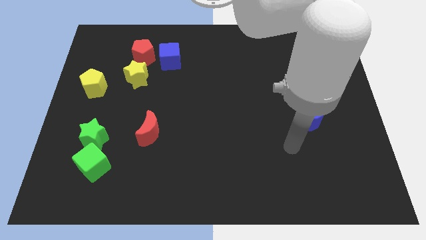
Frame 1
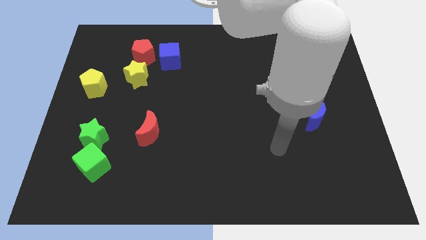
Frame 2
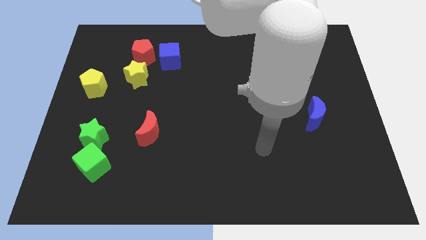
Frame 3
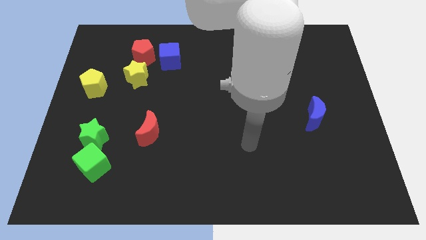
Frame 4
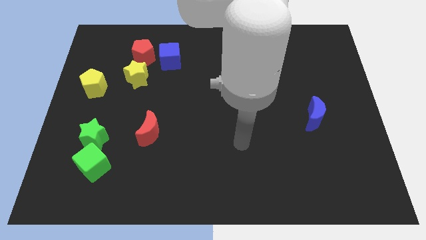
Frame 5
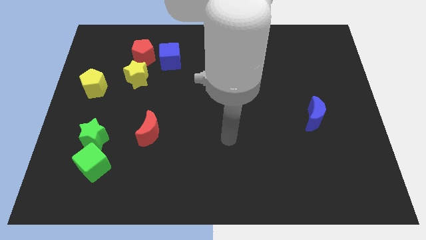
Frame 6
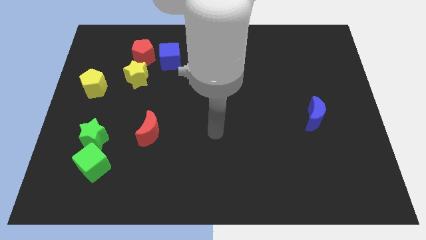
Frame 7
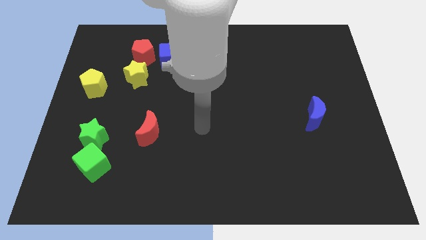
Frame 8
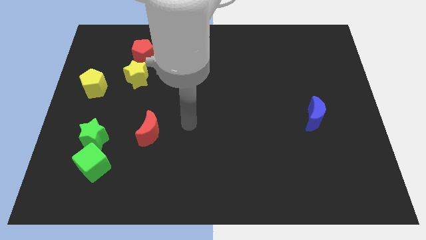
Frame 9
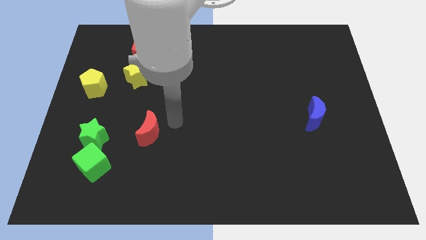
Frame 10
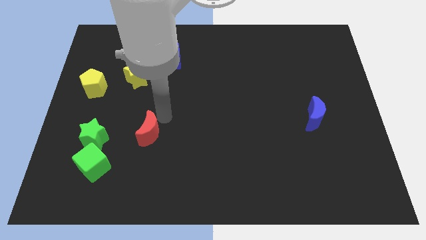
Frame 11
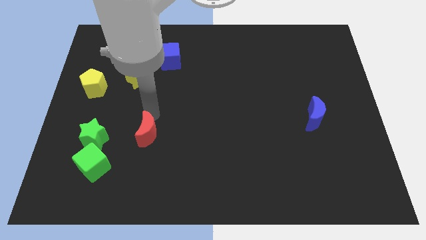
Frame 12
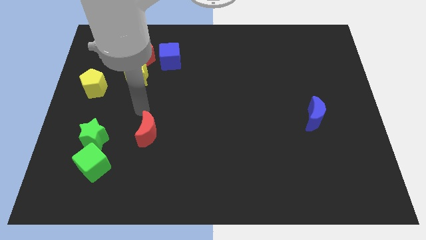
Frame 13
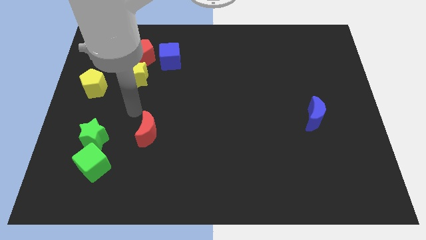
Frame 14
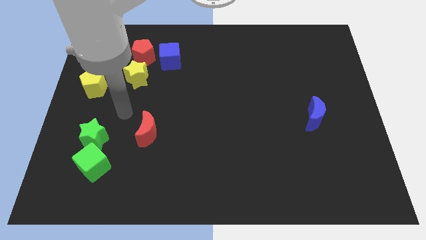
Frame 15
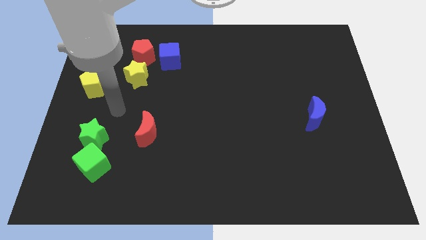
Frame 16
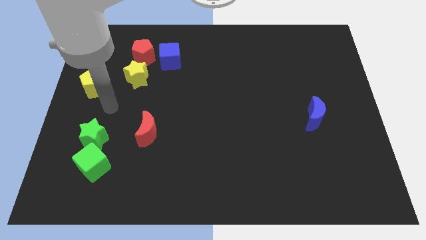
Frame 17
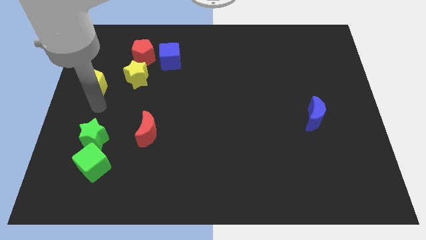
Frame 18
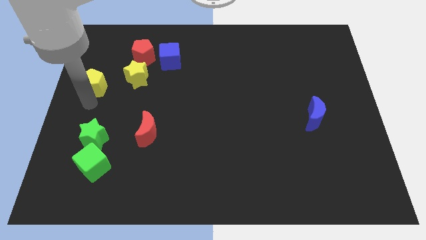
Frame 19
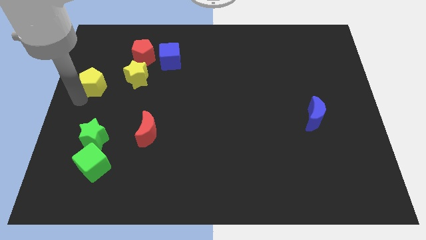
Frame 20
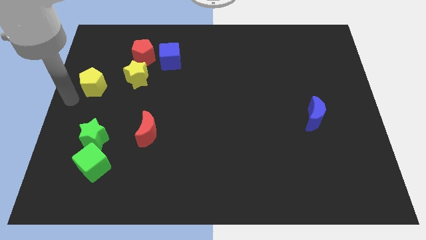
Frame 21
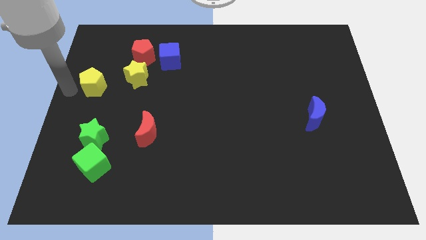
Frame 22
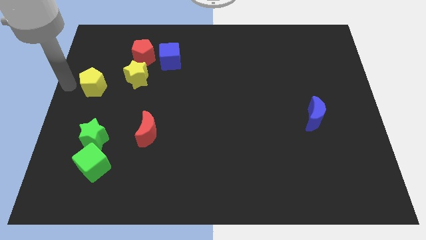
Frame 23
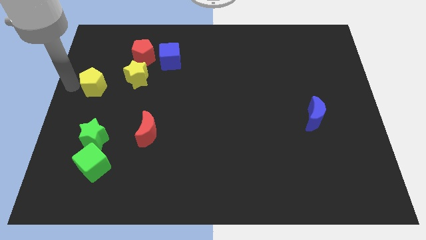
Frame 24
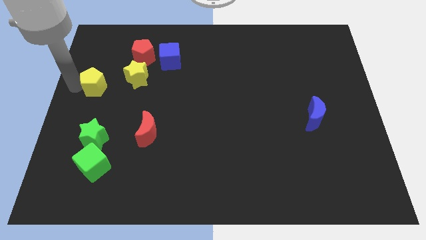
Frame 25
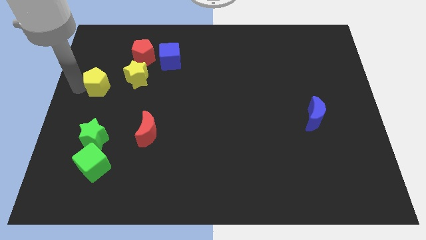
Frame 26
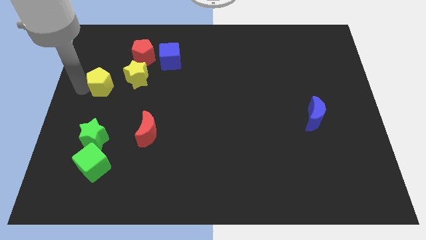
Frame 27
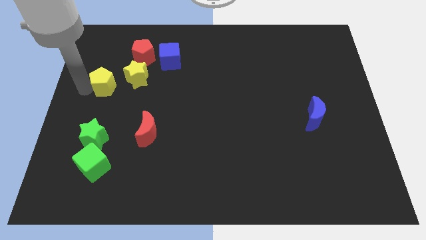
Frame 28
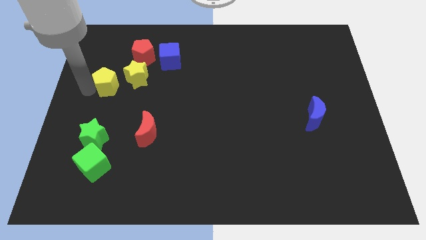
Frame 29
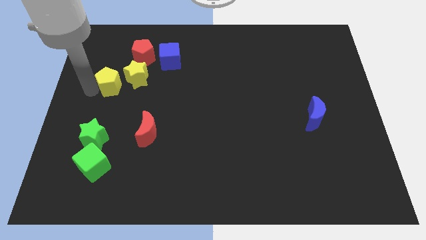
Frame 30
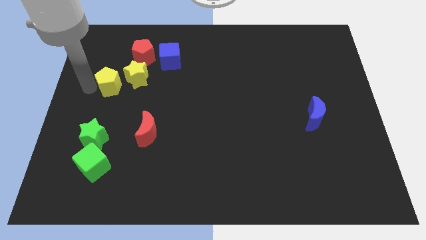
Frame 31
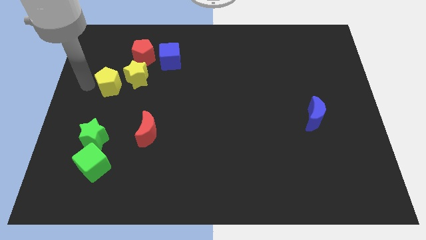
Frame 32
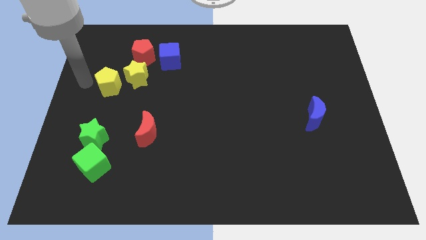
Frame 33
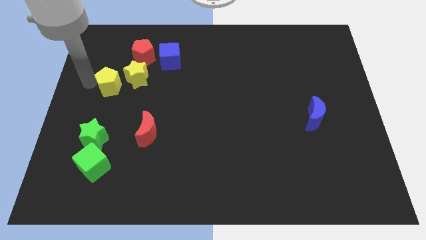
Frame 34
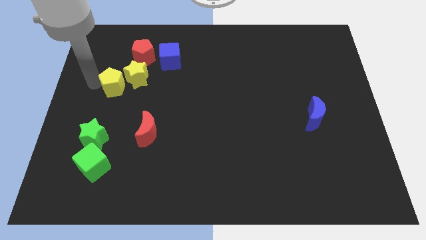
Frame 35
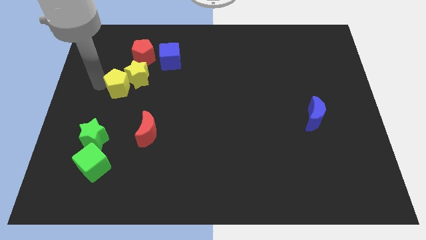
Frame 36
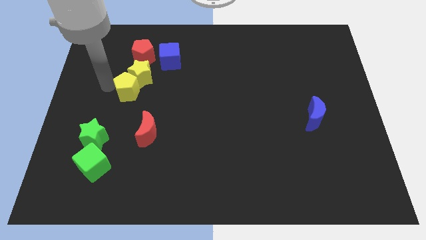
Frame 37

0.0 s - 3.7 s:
move the yellow pentagon to the right a bit

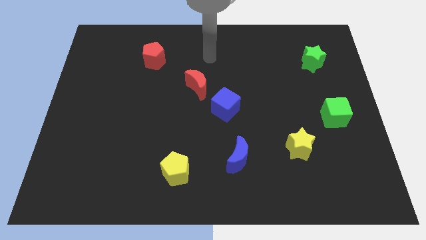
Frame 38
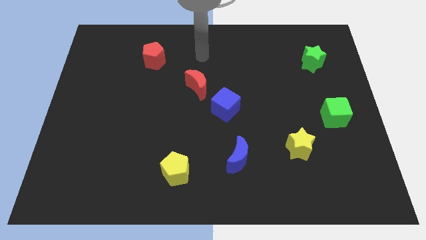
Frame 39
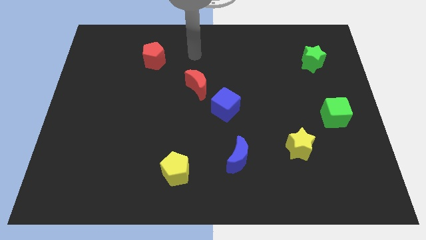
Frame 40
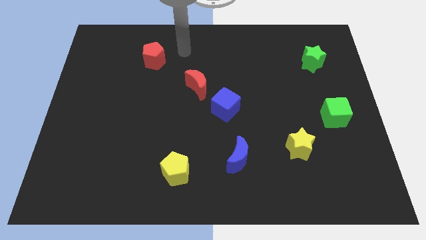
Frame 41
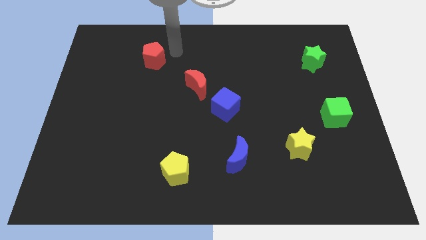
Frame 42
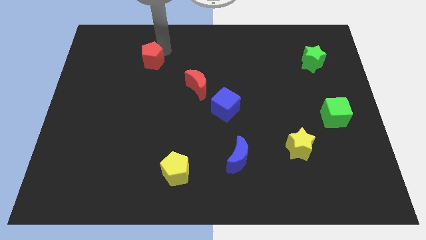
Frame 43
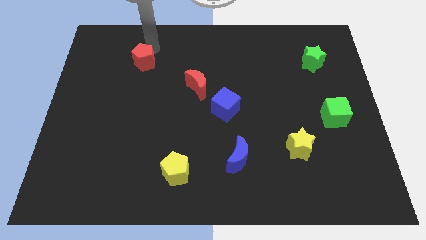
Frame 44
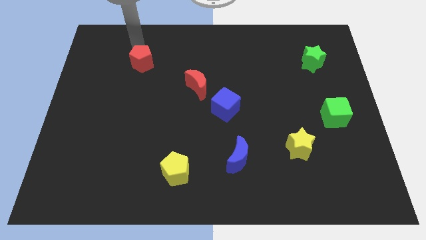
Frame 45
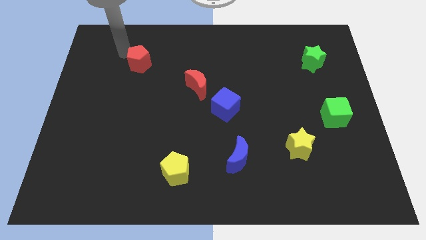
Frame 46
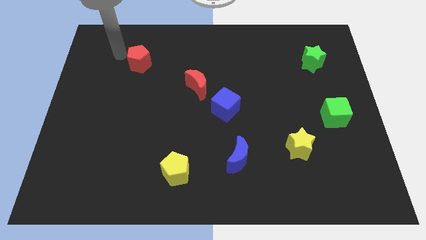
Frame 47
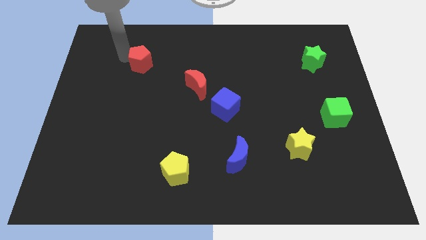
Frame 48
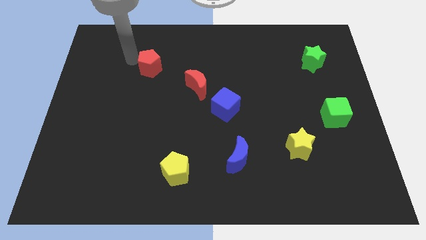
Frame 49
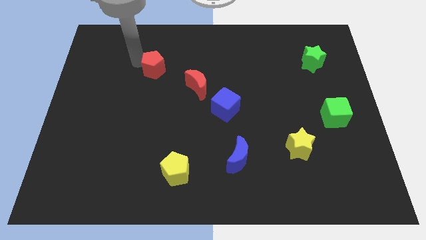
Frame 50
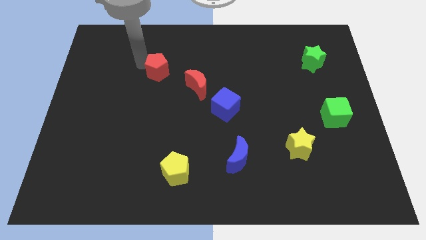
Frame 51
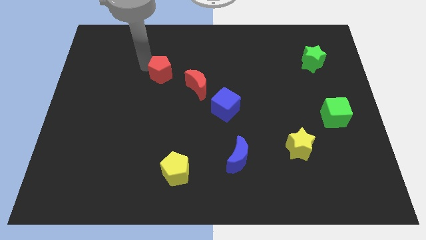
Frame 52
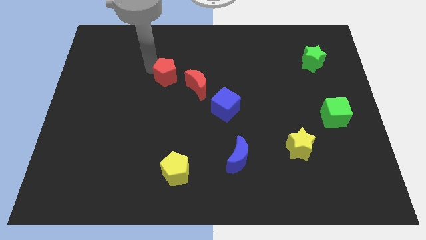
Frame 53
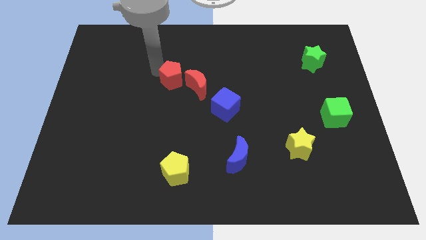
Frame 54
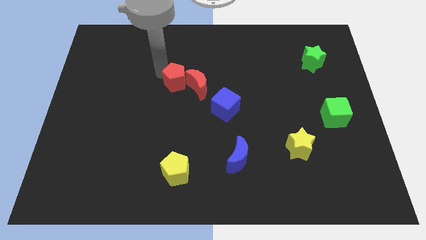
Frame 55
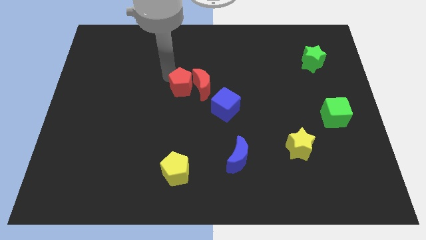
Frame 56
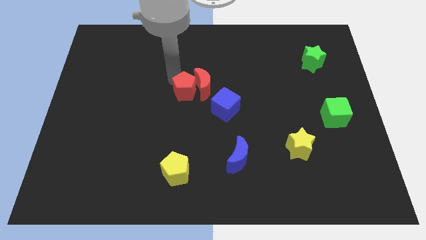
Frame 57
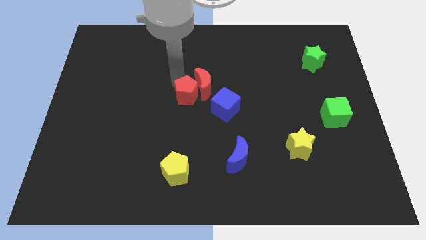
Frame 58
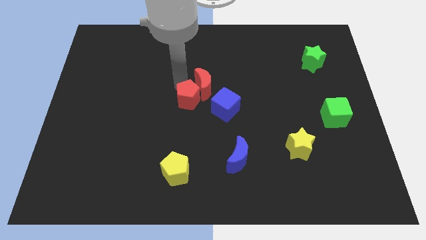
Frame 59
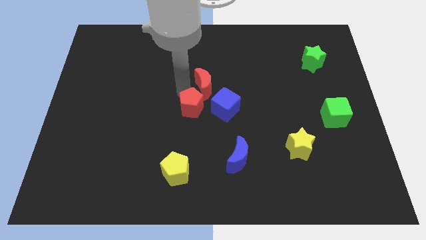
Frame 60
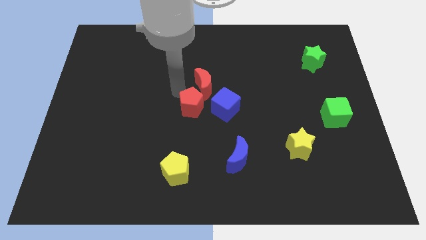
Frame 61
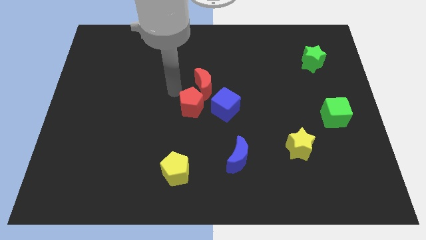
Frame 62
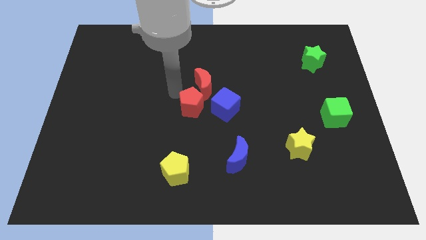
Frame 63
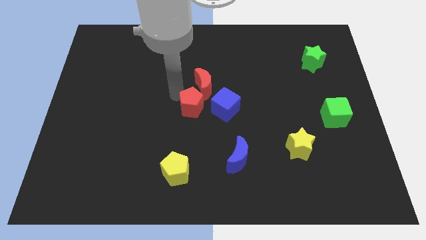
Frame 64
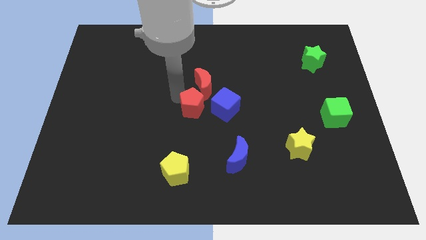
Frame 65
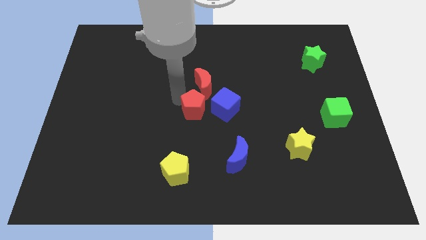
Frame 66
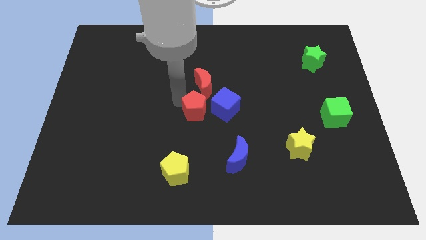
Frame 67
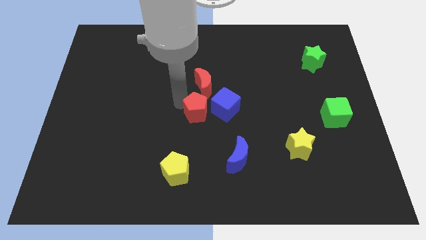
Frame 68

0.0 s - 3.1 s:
push the red pentagon down and right

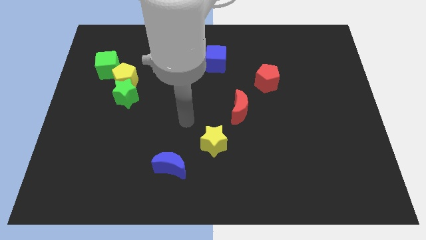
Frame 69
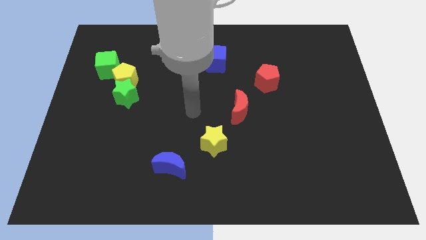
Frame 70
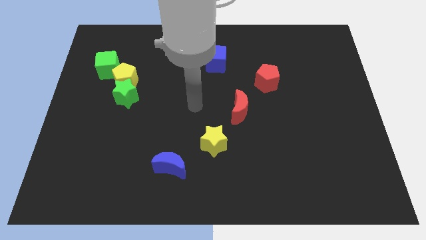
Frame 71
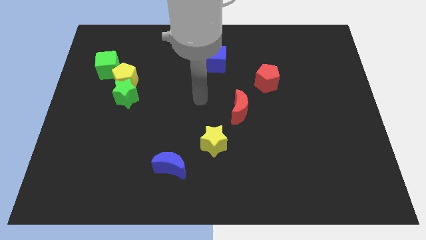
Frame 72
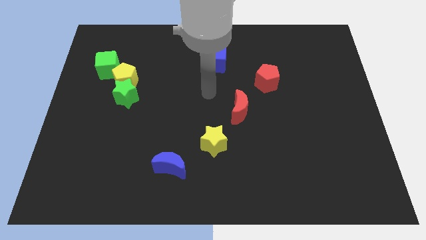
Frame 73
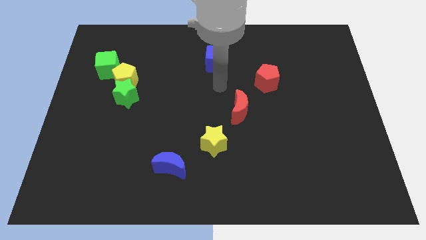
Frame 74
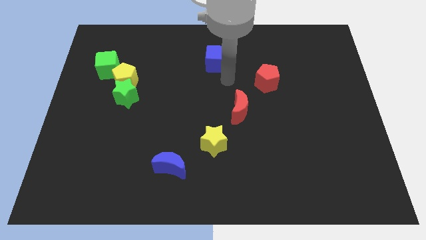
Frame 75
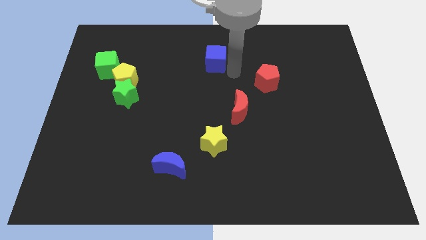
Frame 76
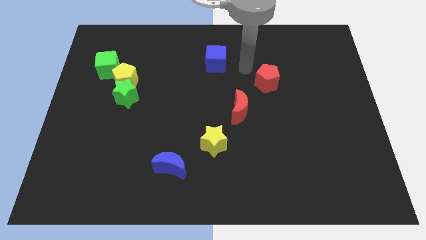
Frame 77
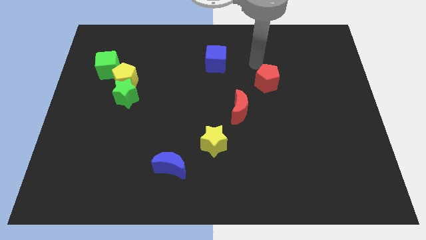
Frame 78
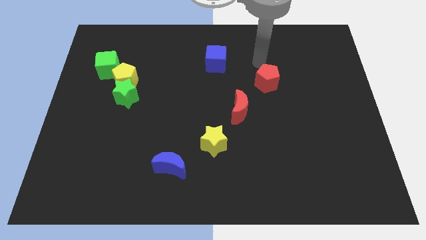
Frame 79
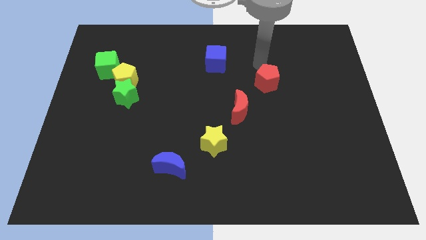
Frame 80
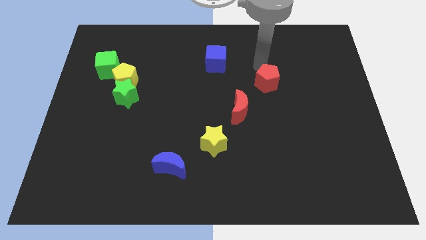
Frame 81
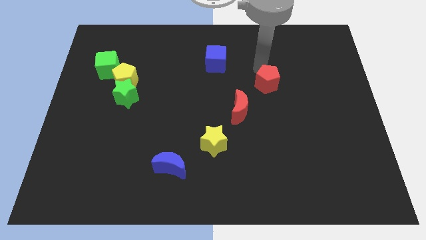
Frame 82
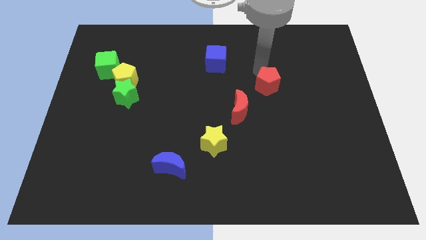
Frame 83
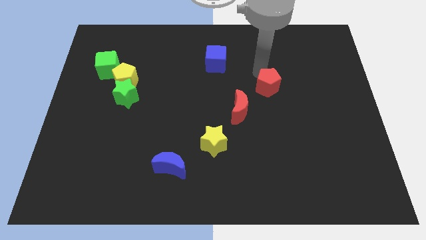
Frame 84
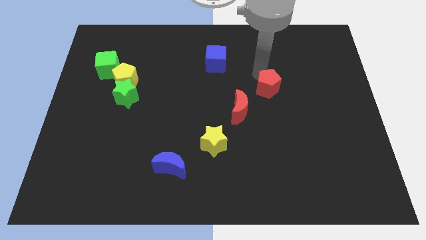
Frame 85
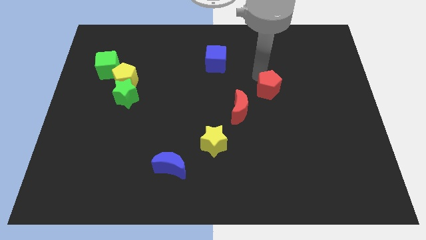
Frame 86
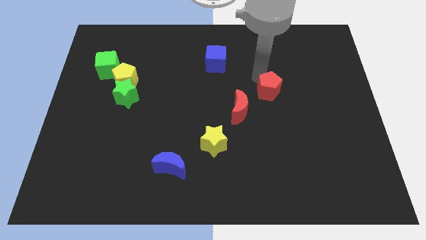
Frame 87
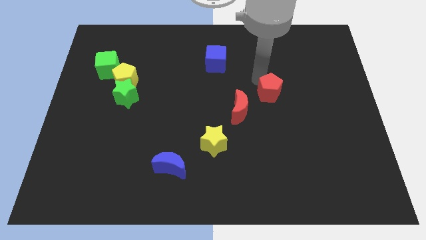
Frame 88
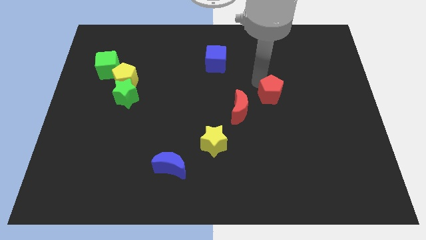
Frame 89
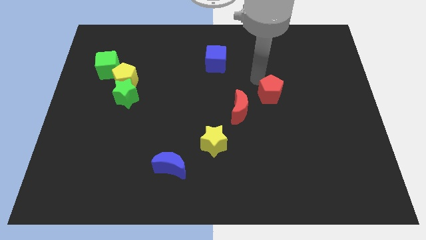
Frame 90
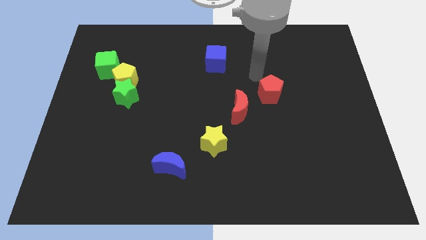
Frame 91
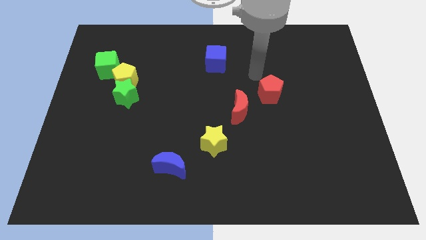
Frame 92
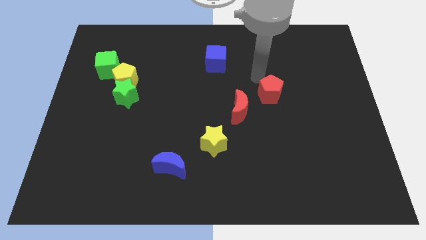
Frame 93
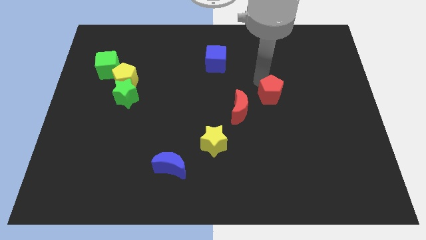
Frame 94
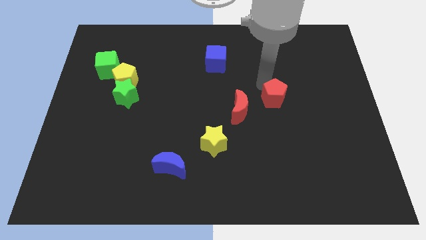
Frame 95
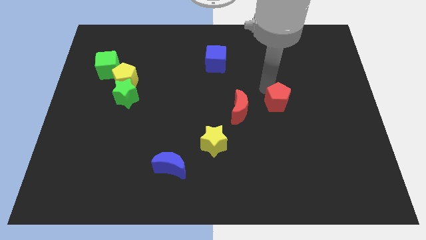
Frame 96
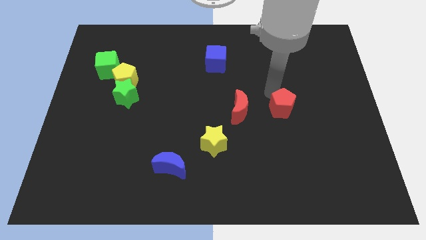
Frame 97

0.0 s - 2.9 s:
slightly slide the red pentagon downwards
